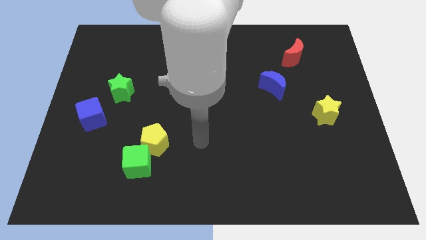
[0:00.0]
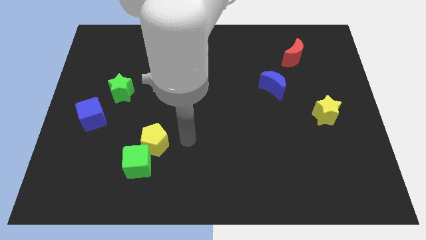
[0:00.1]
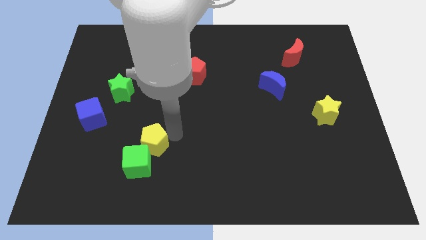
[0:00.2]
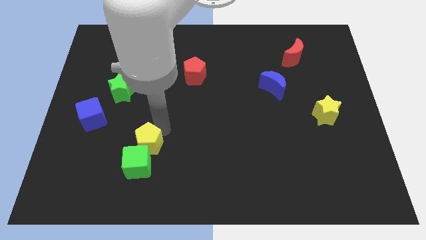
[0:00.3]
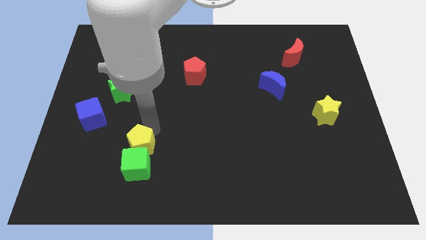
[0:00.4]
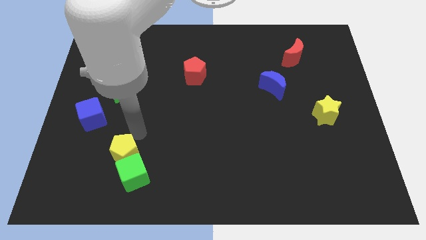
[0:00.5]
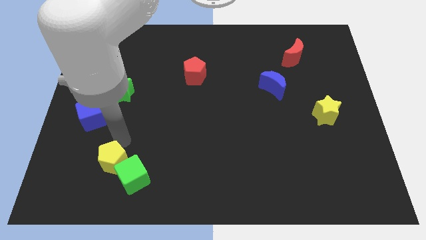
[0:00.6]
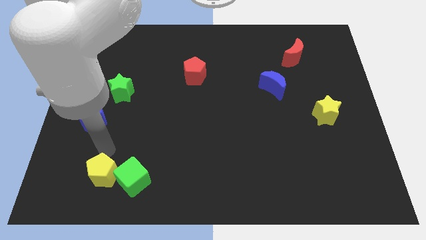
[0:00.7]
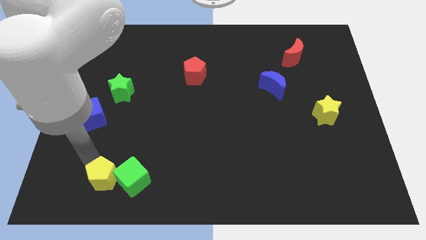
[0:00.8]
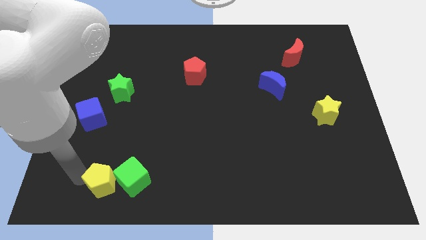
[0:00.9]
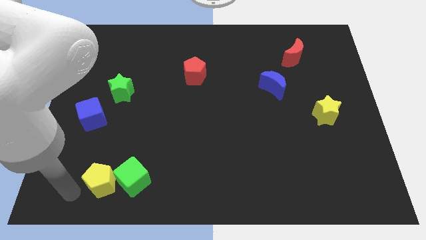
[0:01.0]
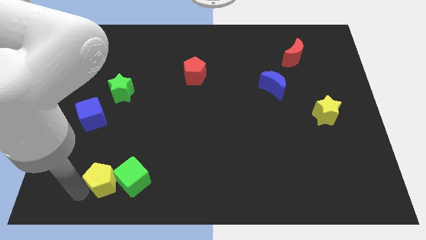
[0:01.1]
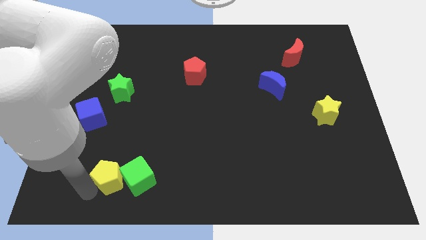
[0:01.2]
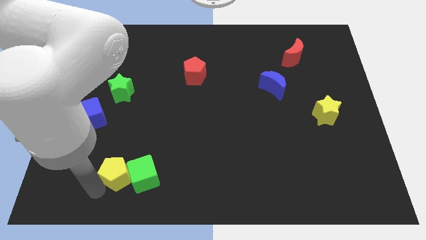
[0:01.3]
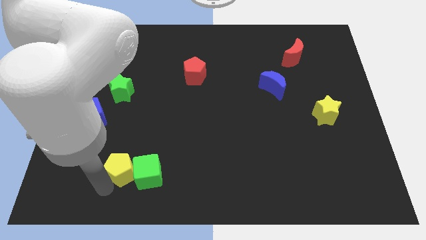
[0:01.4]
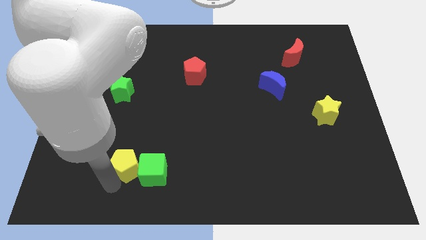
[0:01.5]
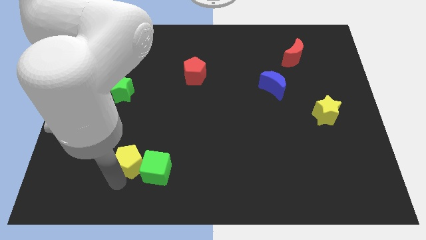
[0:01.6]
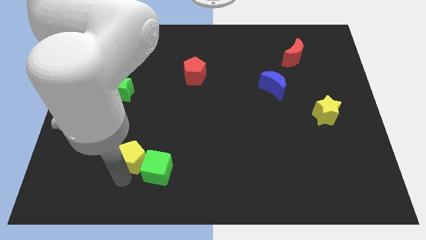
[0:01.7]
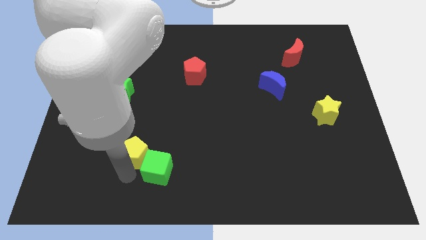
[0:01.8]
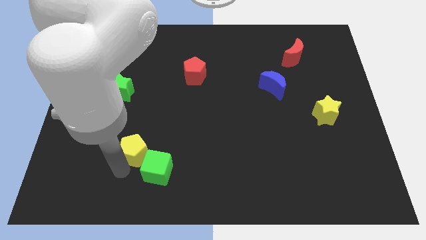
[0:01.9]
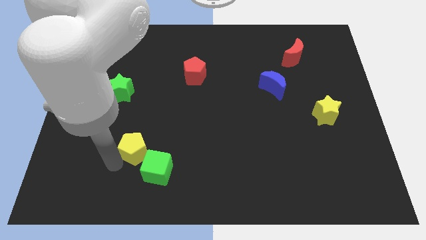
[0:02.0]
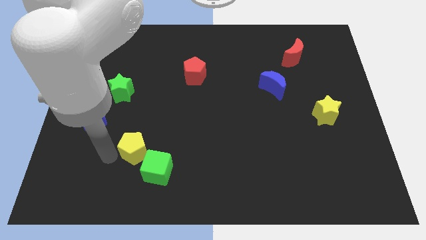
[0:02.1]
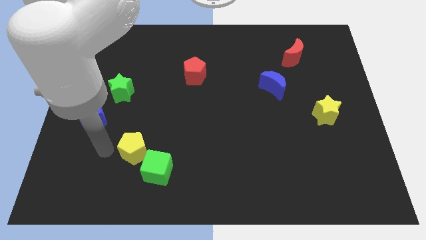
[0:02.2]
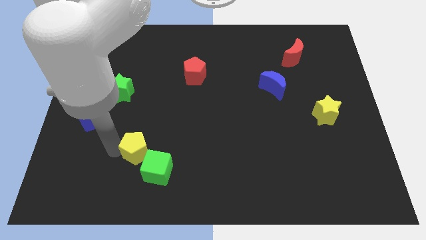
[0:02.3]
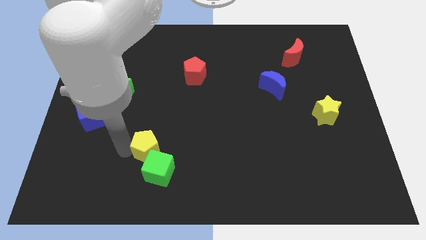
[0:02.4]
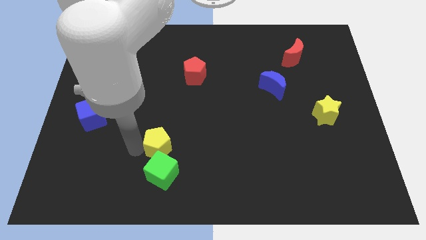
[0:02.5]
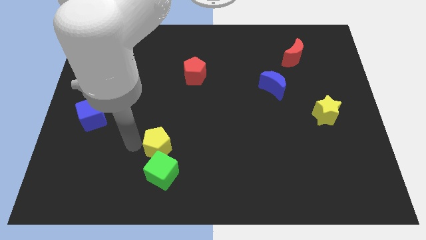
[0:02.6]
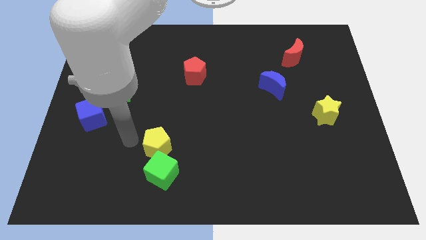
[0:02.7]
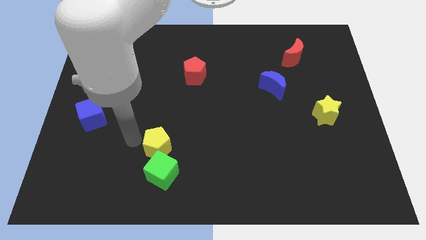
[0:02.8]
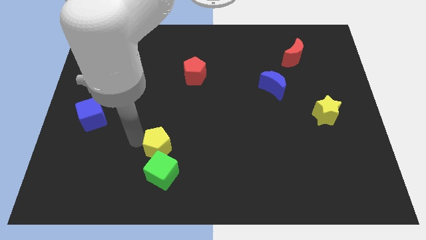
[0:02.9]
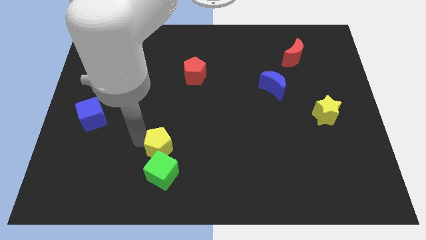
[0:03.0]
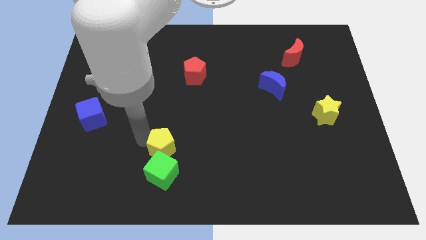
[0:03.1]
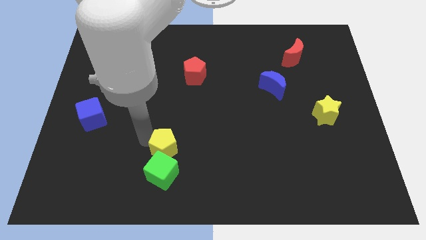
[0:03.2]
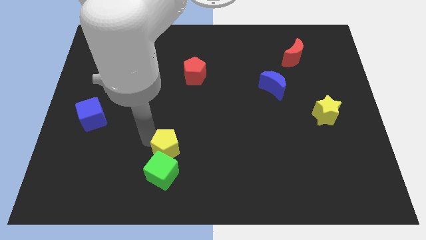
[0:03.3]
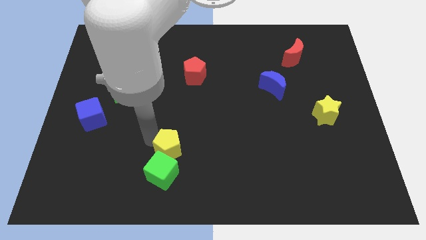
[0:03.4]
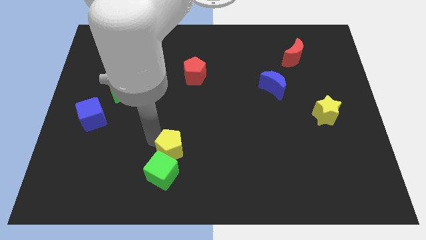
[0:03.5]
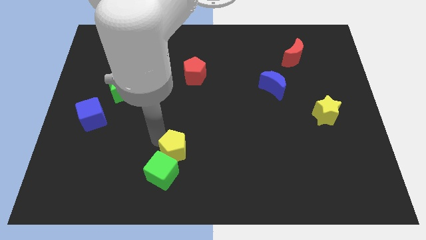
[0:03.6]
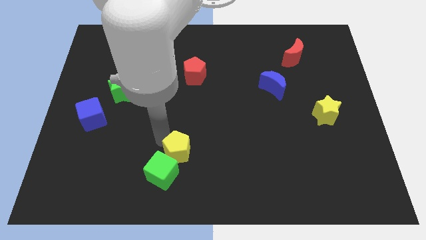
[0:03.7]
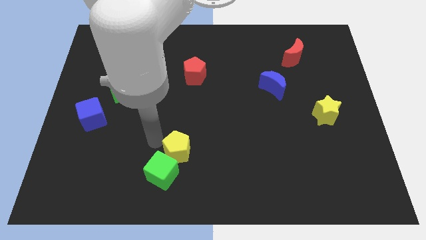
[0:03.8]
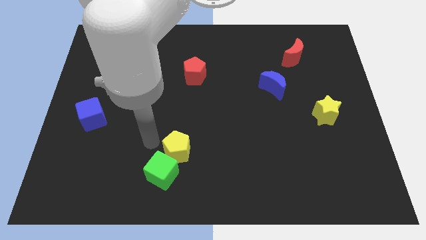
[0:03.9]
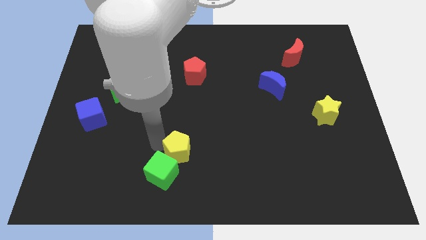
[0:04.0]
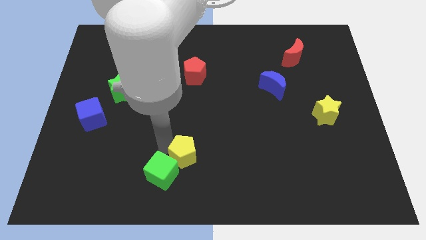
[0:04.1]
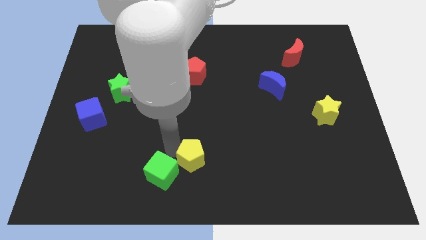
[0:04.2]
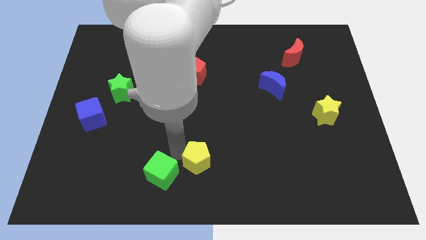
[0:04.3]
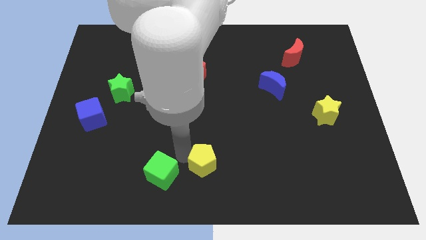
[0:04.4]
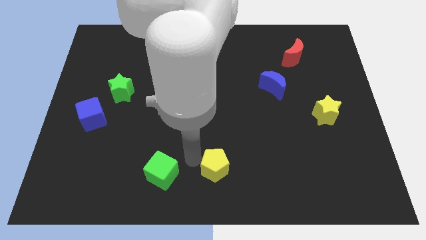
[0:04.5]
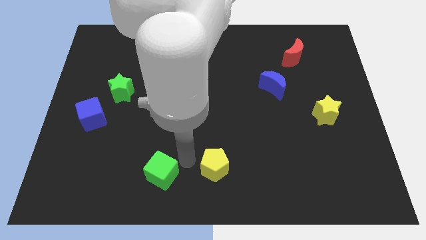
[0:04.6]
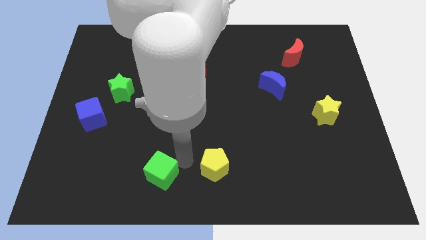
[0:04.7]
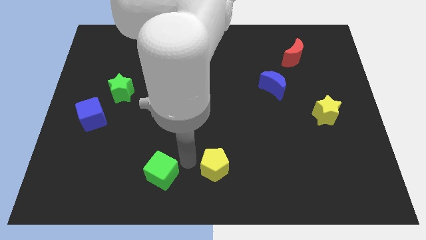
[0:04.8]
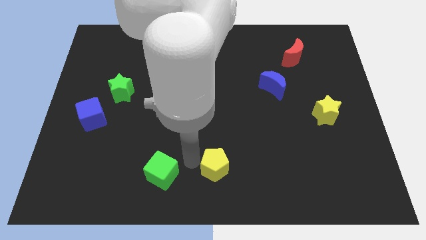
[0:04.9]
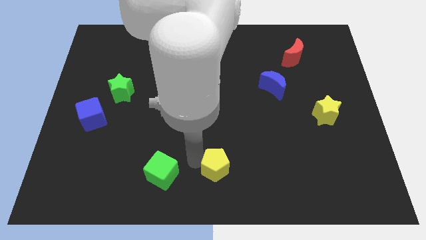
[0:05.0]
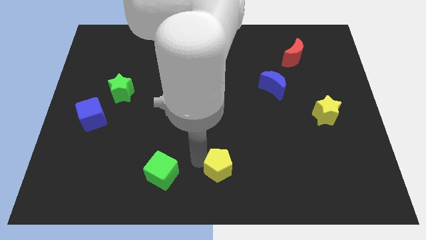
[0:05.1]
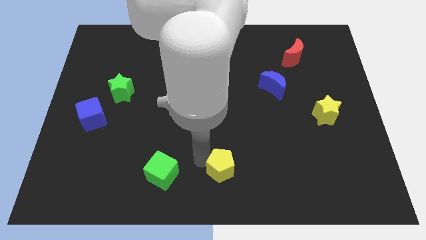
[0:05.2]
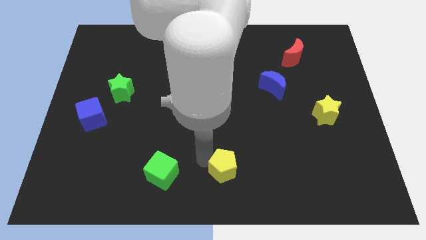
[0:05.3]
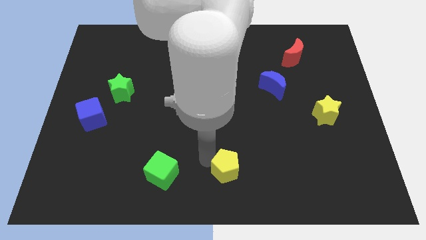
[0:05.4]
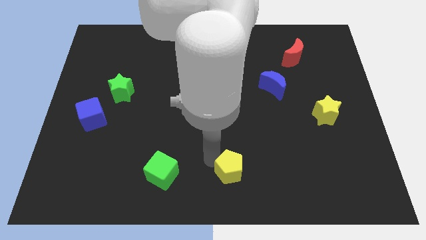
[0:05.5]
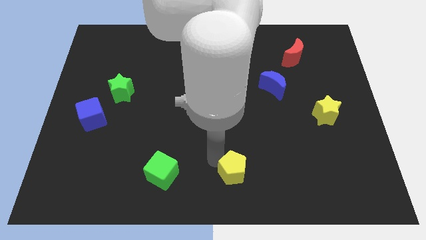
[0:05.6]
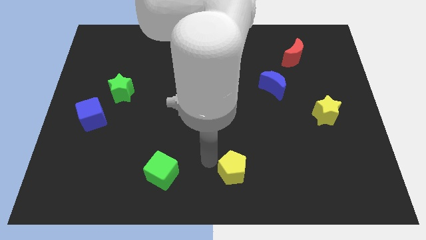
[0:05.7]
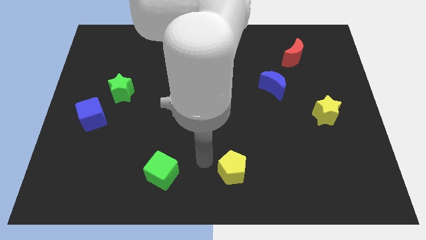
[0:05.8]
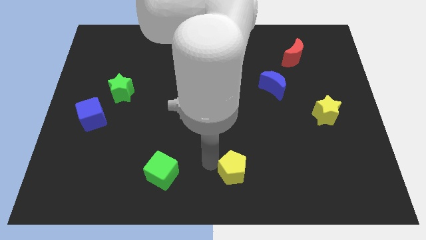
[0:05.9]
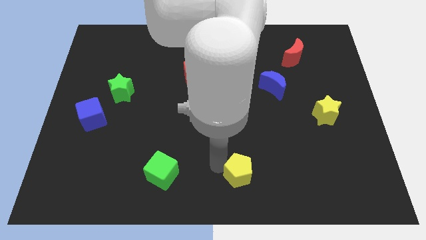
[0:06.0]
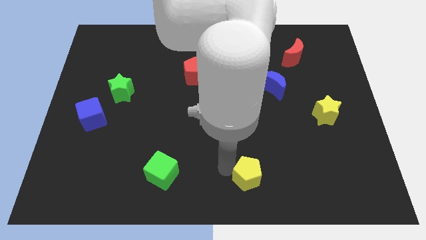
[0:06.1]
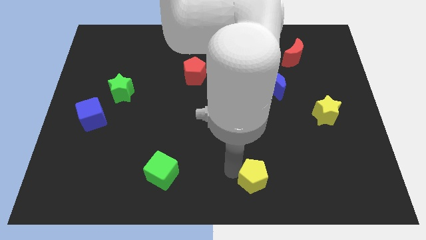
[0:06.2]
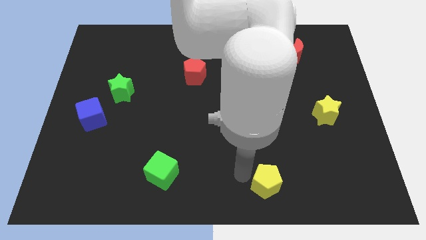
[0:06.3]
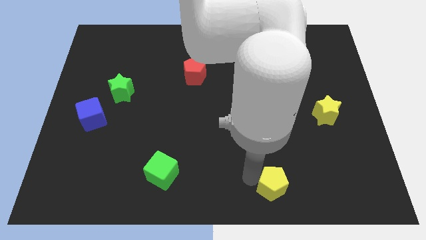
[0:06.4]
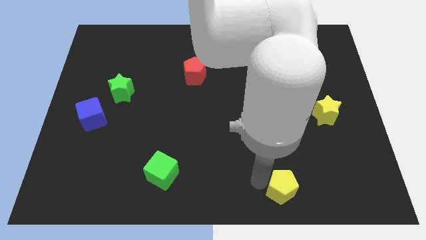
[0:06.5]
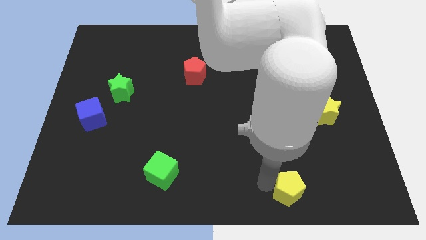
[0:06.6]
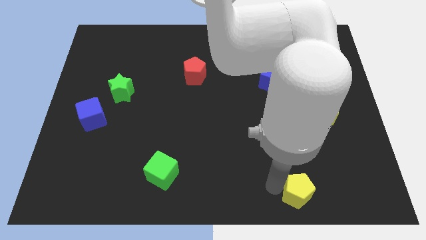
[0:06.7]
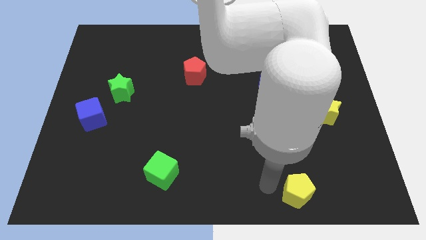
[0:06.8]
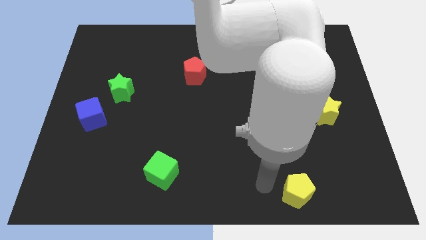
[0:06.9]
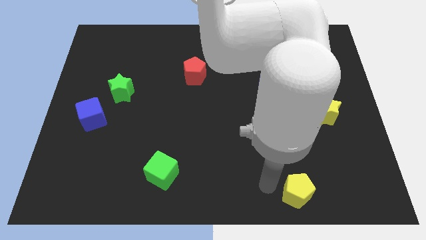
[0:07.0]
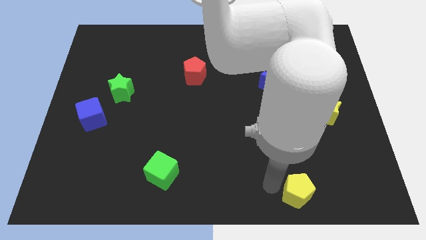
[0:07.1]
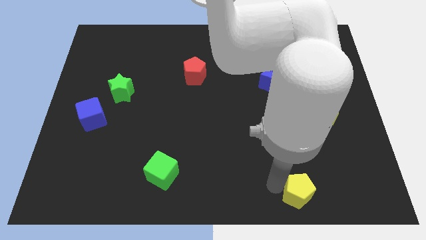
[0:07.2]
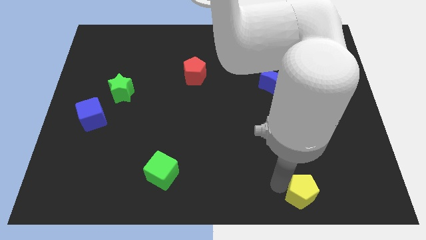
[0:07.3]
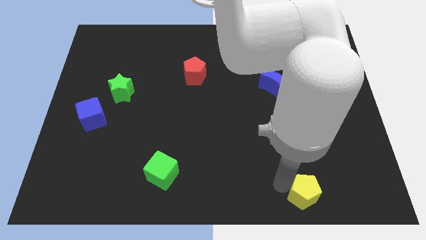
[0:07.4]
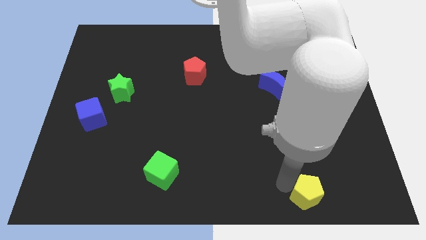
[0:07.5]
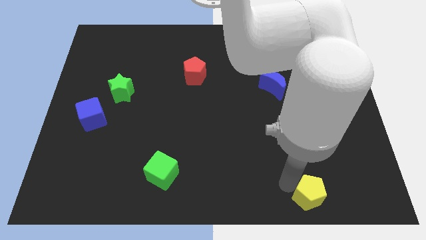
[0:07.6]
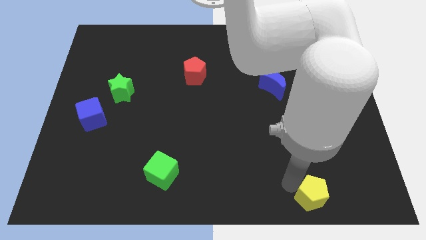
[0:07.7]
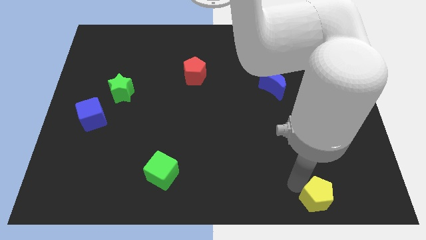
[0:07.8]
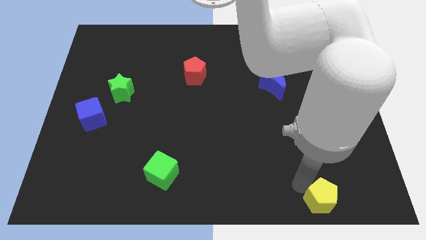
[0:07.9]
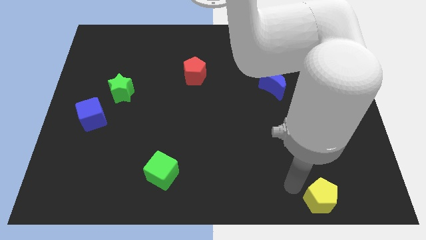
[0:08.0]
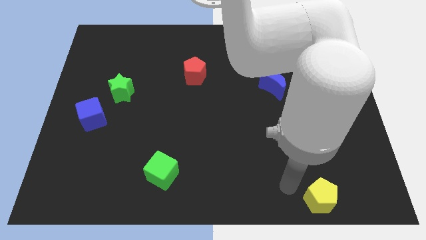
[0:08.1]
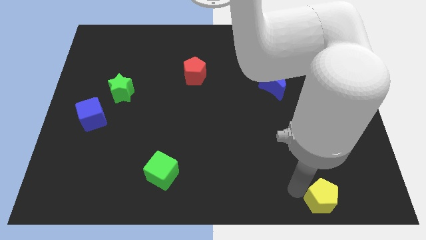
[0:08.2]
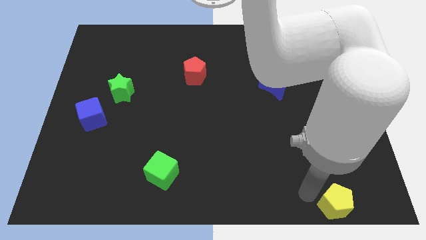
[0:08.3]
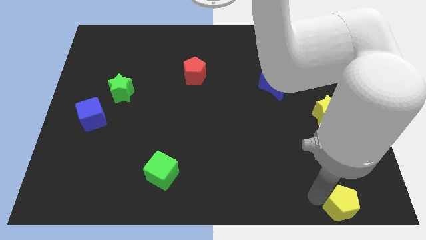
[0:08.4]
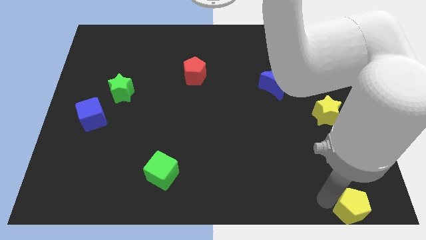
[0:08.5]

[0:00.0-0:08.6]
slide the yellow pentagon to the bottom right corner
